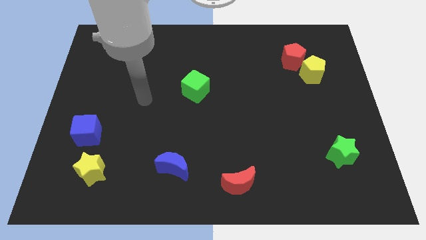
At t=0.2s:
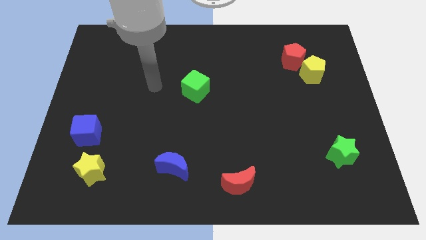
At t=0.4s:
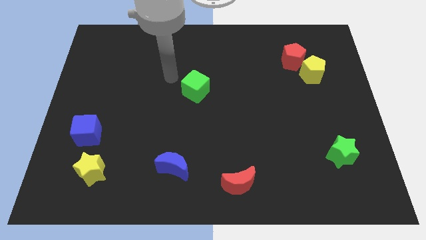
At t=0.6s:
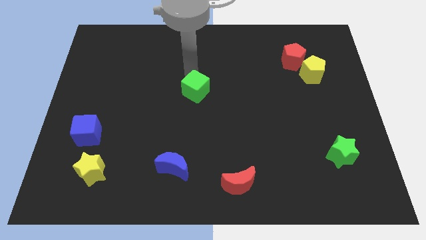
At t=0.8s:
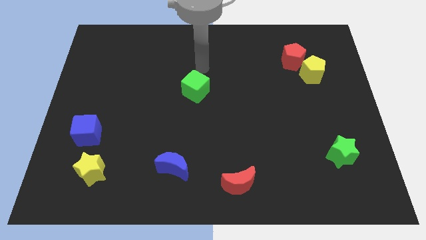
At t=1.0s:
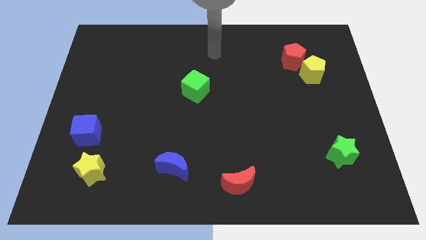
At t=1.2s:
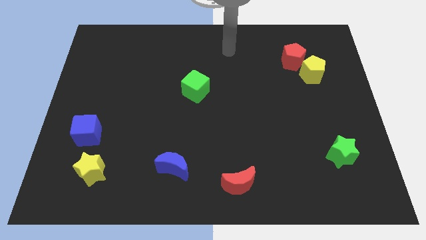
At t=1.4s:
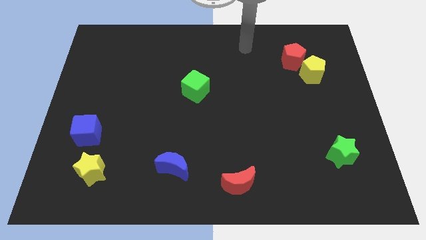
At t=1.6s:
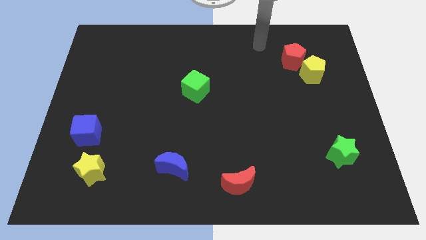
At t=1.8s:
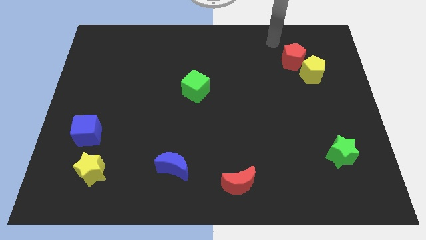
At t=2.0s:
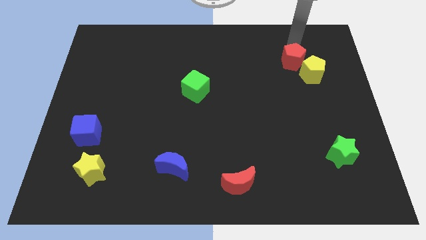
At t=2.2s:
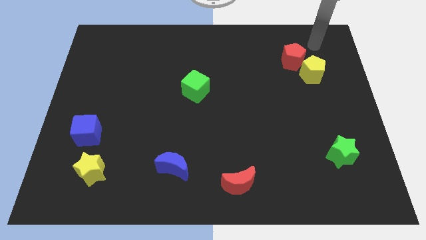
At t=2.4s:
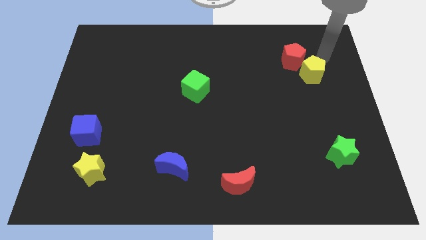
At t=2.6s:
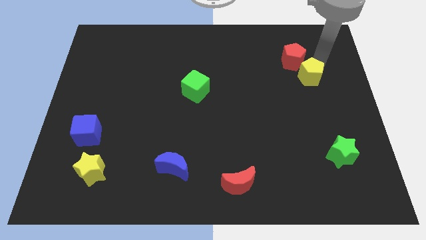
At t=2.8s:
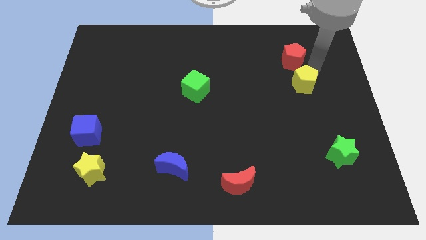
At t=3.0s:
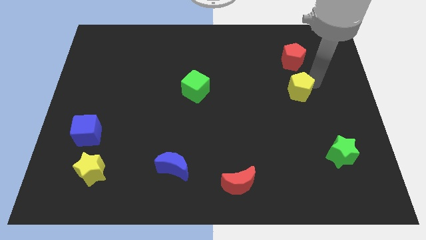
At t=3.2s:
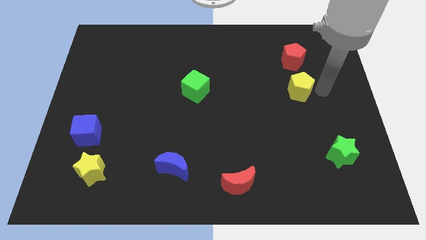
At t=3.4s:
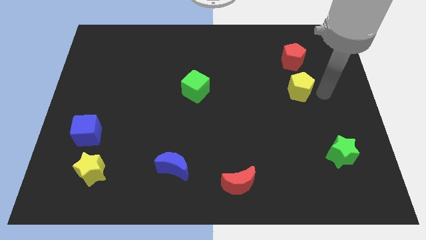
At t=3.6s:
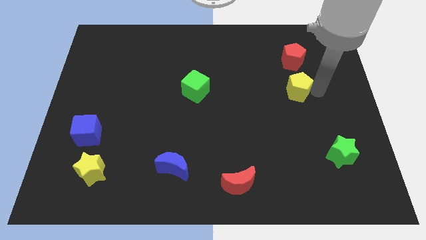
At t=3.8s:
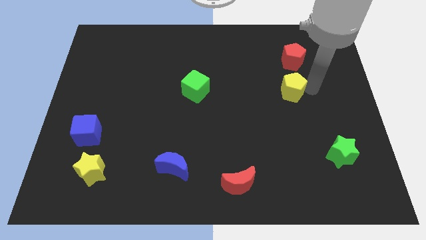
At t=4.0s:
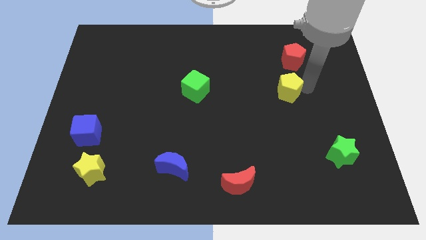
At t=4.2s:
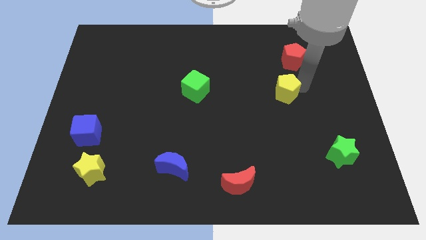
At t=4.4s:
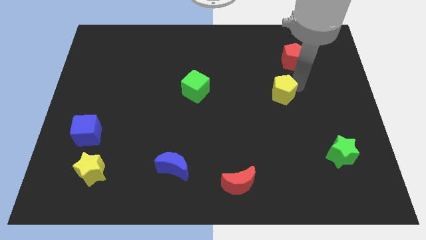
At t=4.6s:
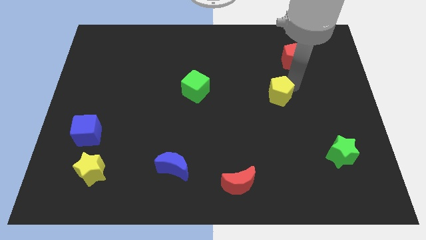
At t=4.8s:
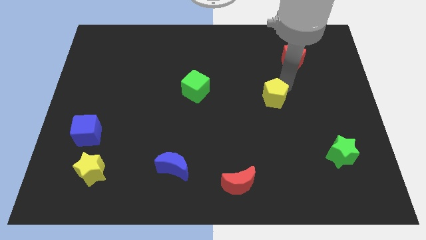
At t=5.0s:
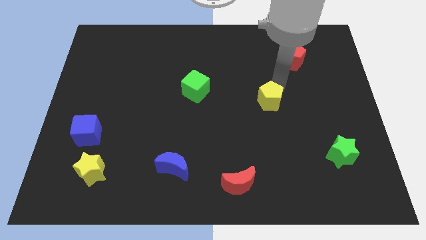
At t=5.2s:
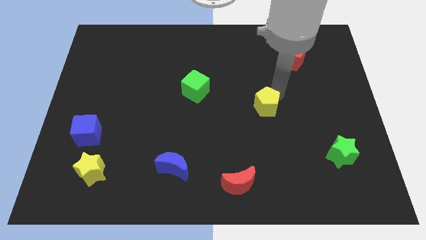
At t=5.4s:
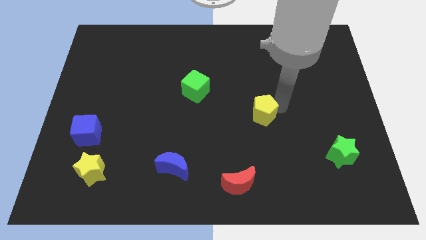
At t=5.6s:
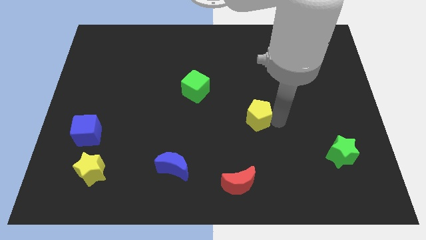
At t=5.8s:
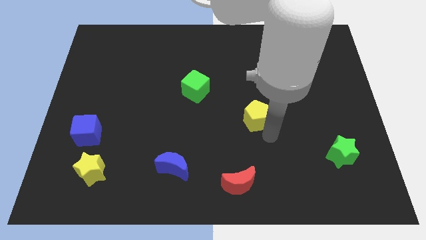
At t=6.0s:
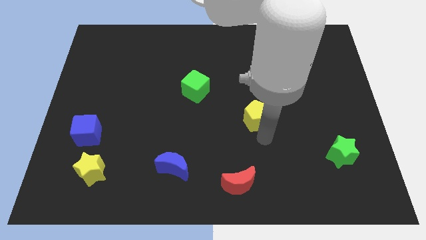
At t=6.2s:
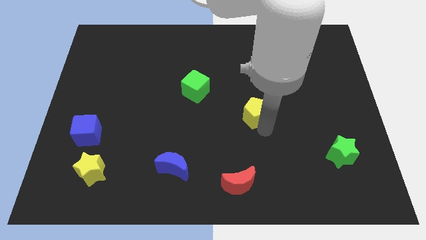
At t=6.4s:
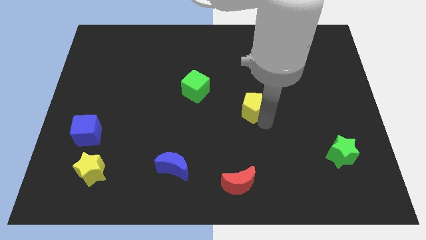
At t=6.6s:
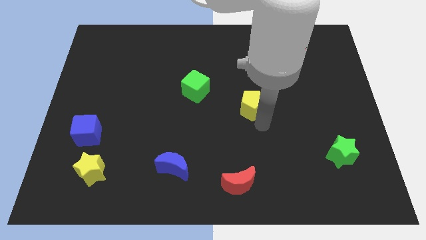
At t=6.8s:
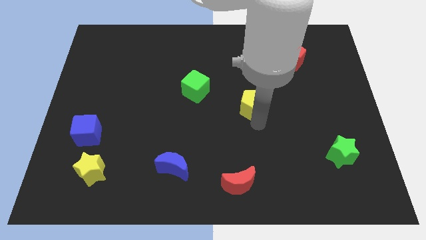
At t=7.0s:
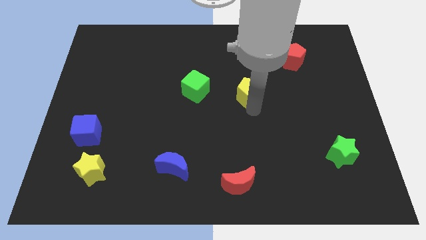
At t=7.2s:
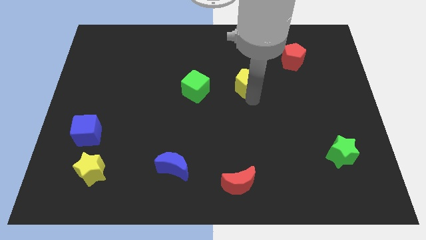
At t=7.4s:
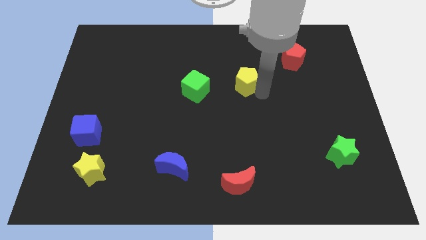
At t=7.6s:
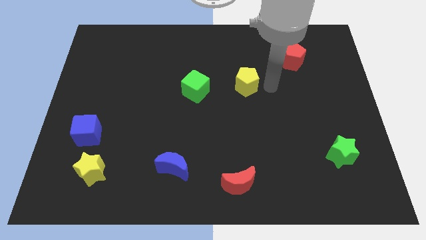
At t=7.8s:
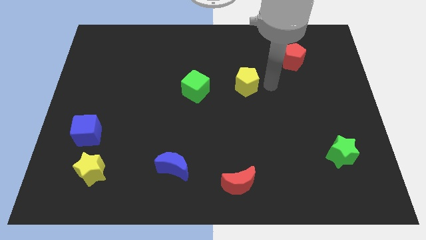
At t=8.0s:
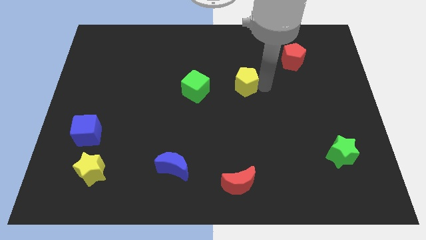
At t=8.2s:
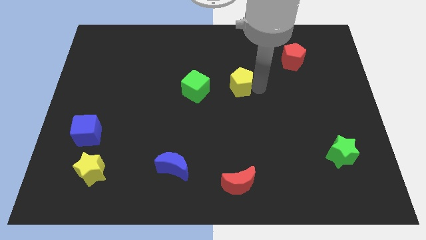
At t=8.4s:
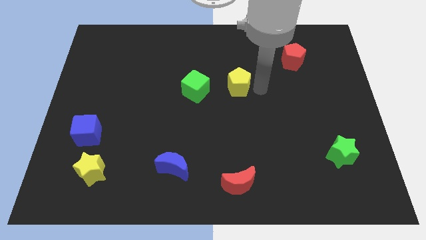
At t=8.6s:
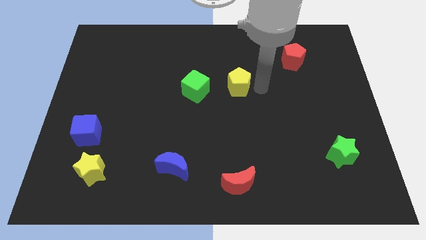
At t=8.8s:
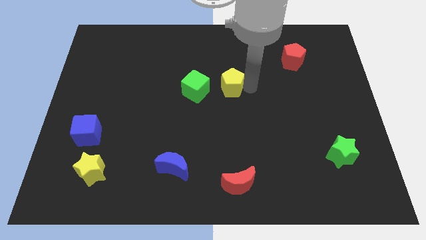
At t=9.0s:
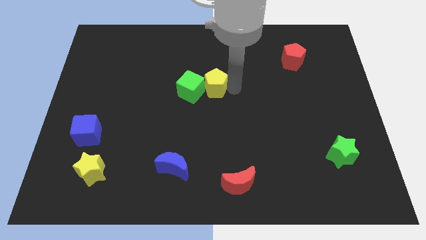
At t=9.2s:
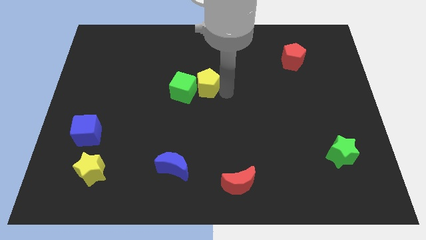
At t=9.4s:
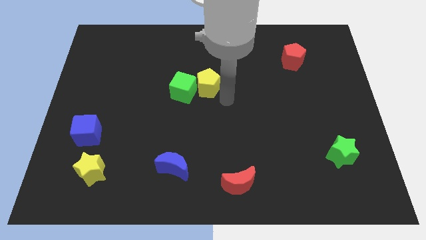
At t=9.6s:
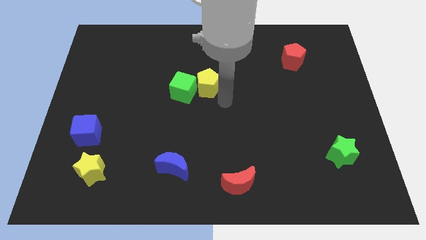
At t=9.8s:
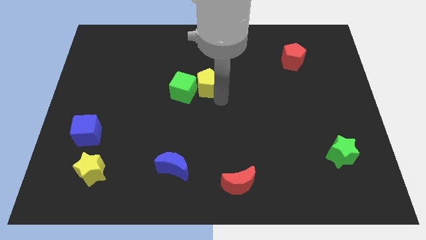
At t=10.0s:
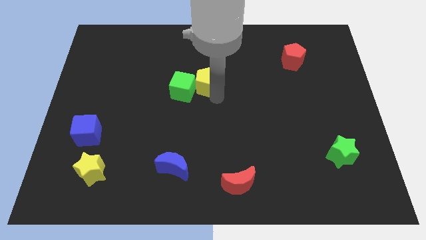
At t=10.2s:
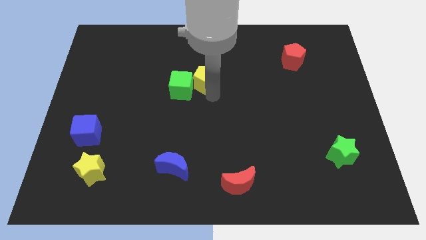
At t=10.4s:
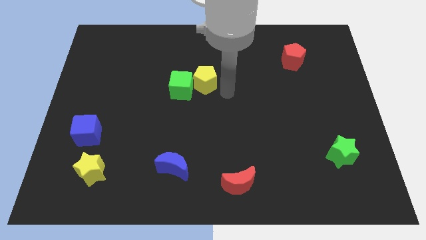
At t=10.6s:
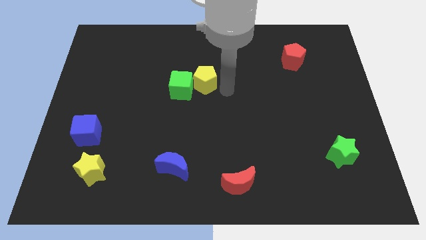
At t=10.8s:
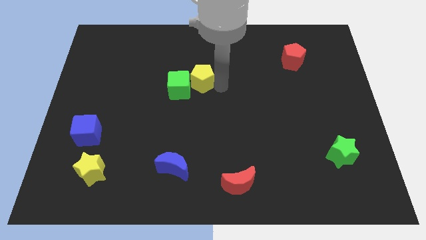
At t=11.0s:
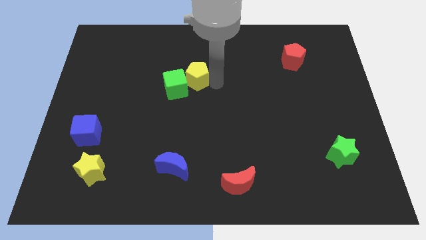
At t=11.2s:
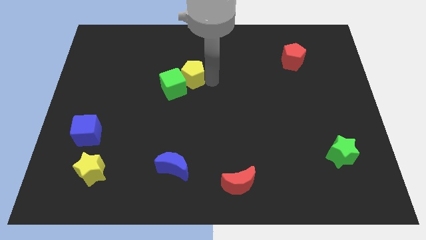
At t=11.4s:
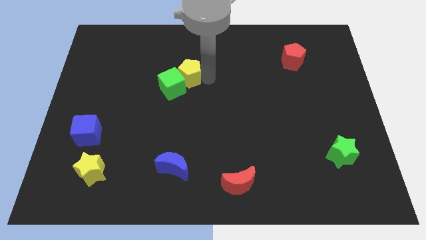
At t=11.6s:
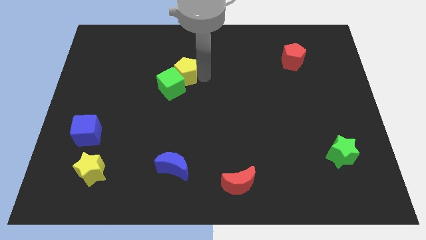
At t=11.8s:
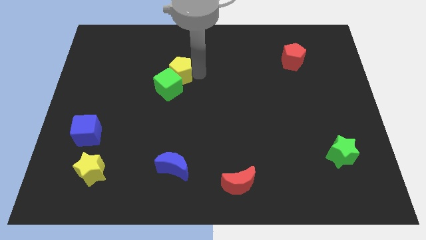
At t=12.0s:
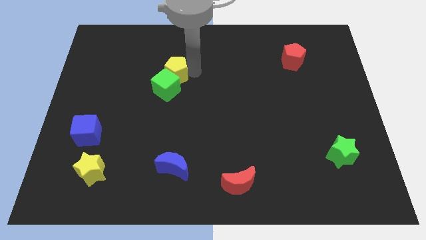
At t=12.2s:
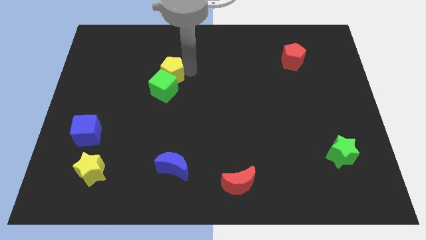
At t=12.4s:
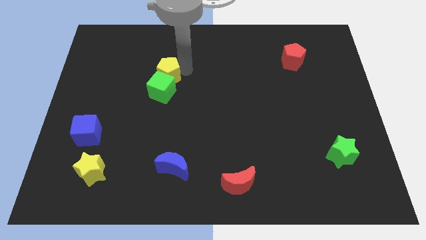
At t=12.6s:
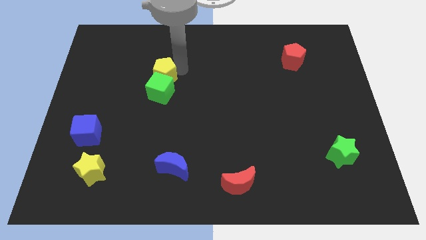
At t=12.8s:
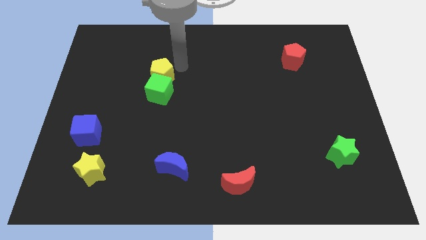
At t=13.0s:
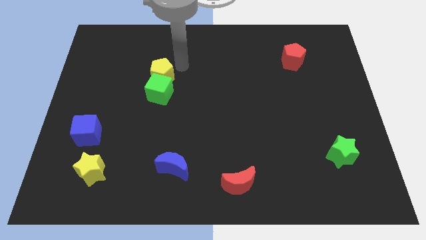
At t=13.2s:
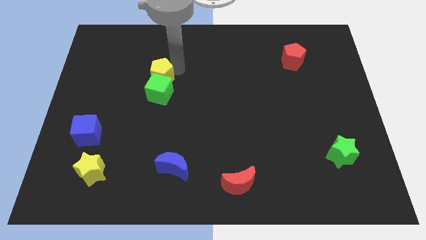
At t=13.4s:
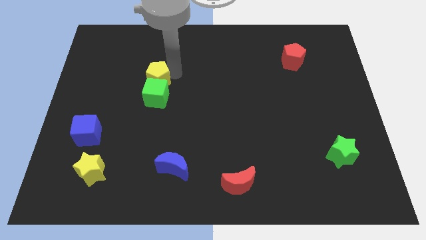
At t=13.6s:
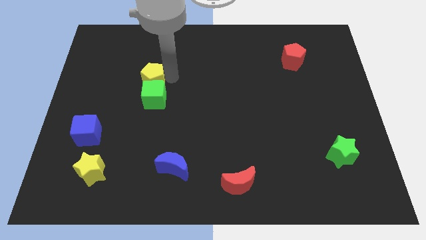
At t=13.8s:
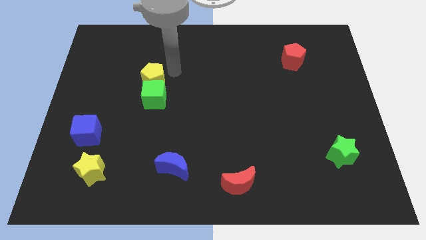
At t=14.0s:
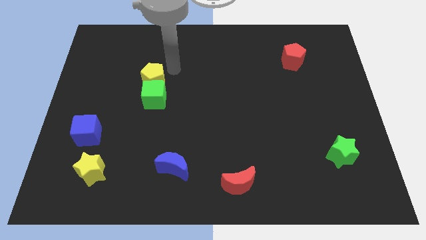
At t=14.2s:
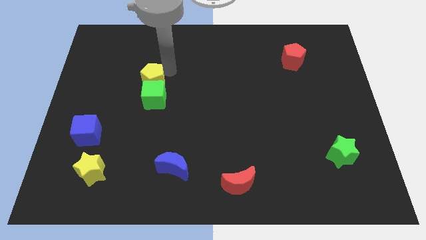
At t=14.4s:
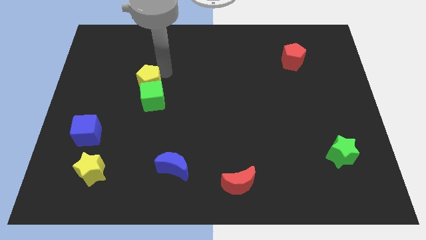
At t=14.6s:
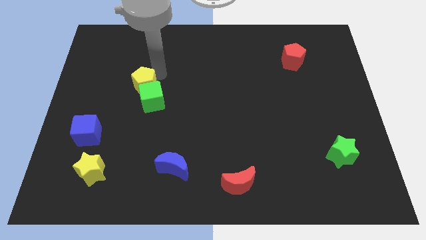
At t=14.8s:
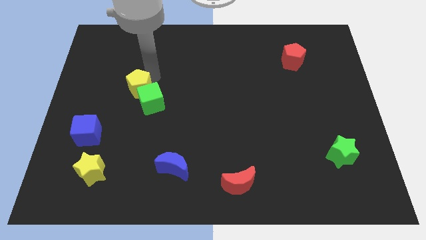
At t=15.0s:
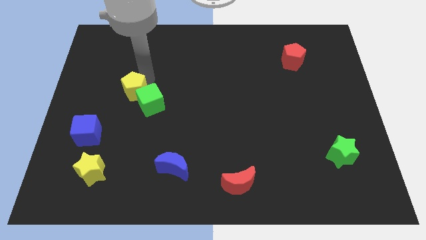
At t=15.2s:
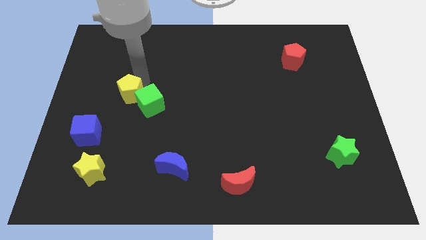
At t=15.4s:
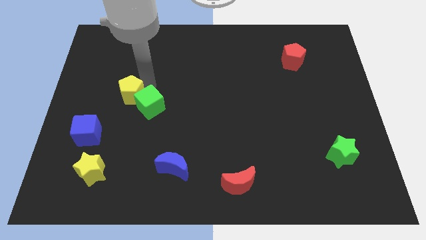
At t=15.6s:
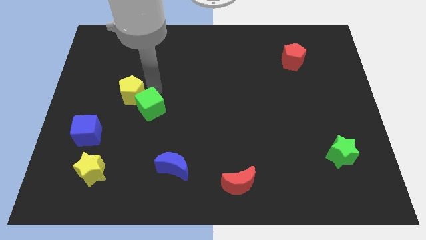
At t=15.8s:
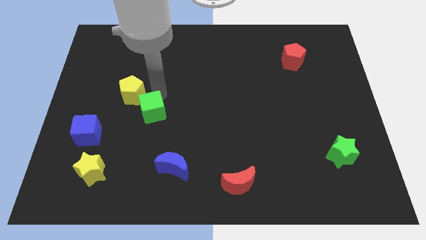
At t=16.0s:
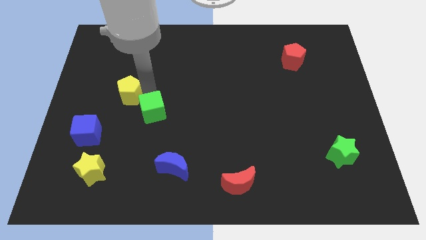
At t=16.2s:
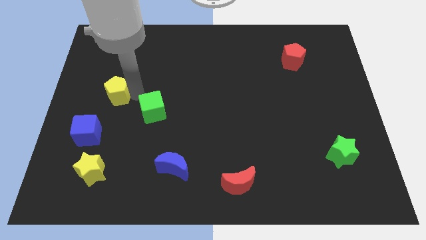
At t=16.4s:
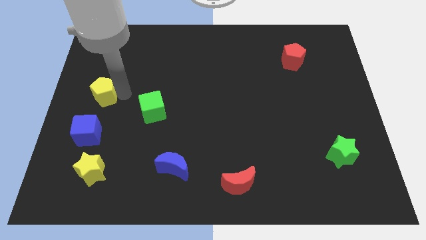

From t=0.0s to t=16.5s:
slide the yellow pentagon to the center left
